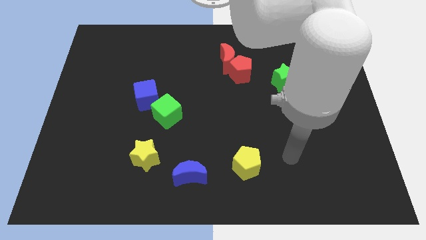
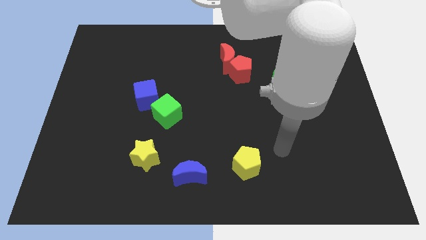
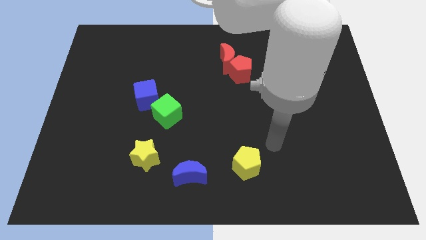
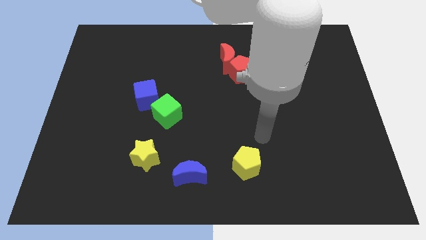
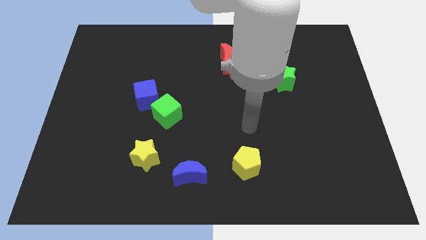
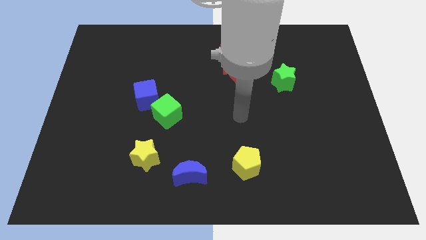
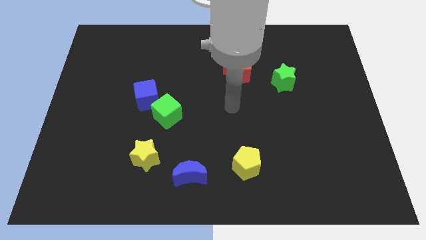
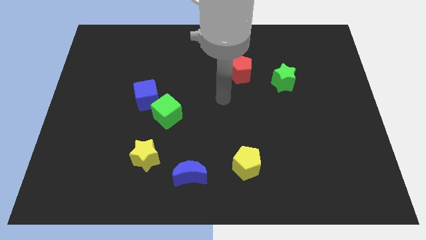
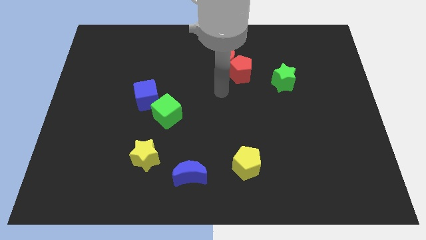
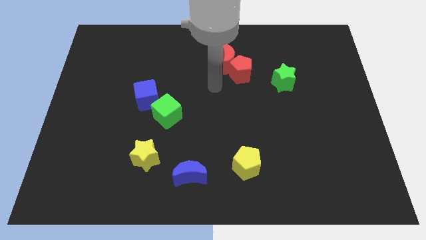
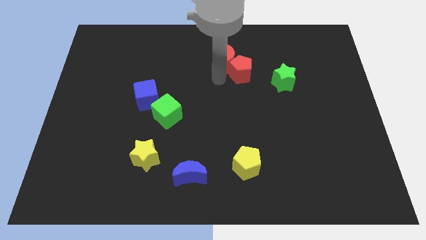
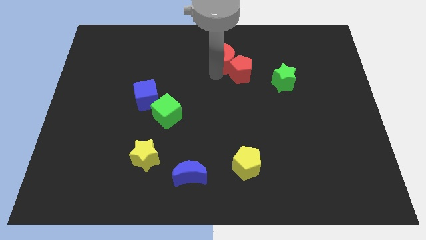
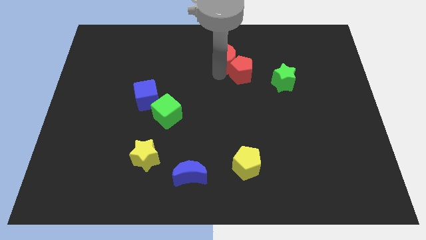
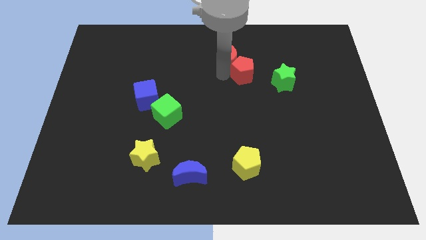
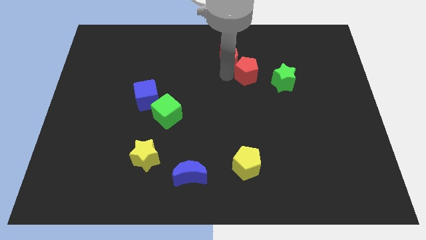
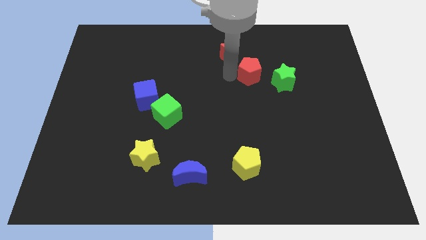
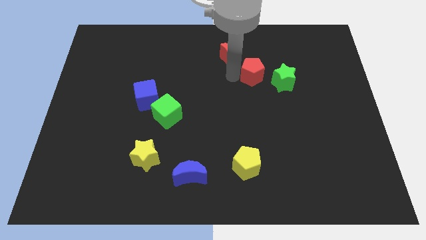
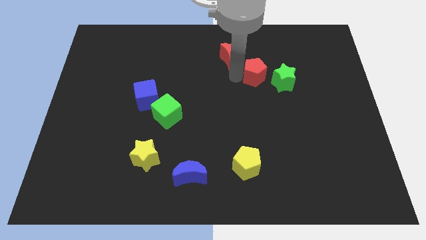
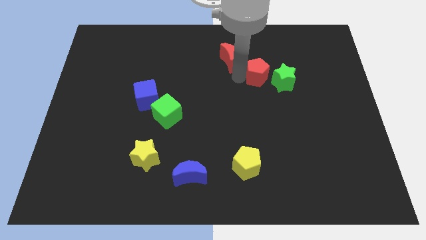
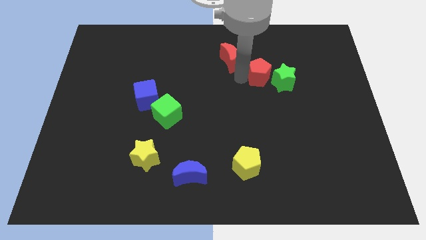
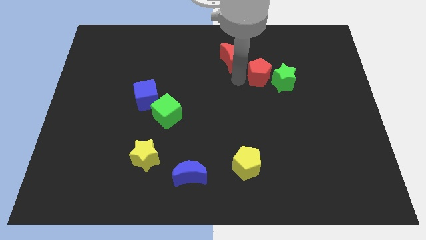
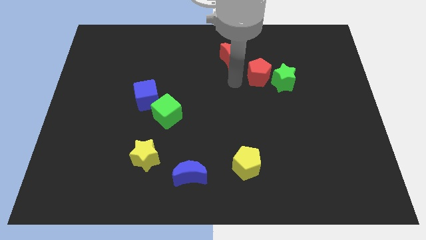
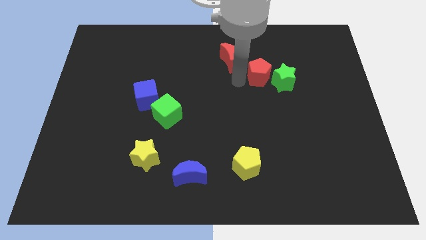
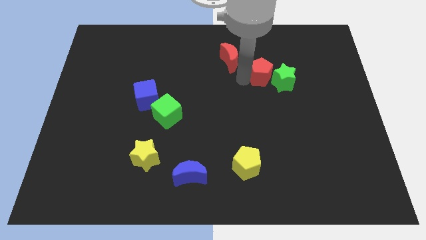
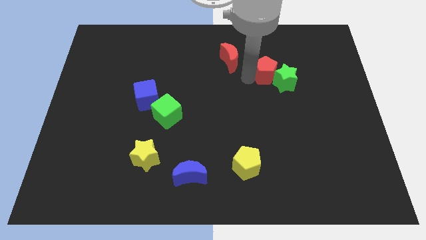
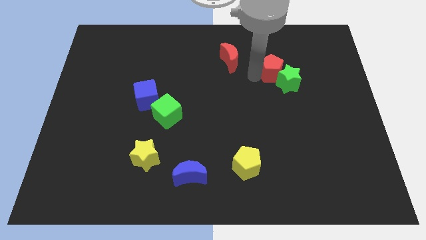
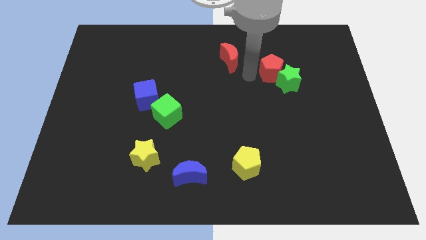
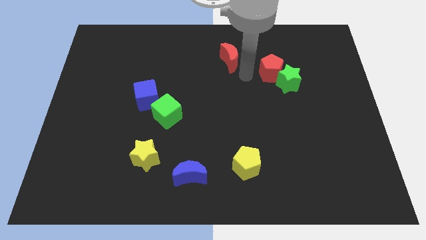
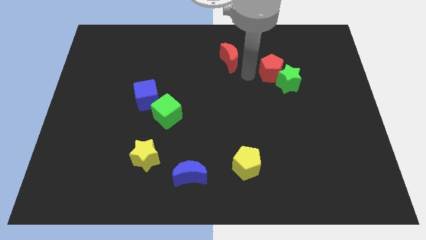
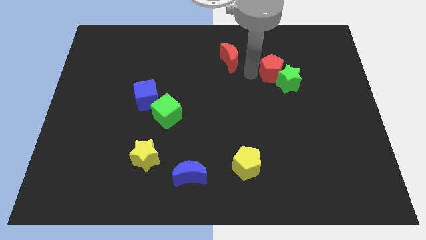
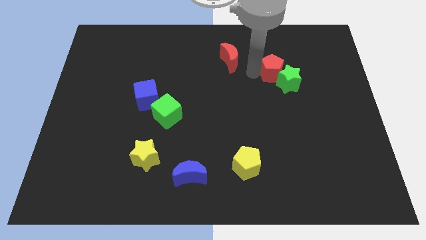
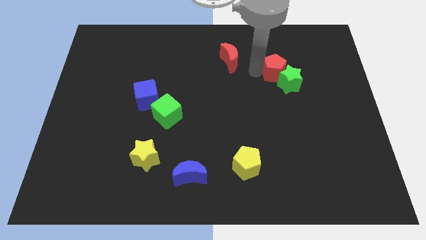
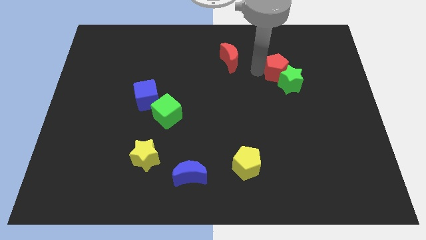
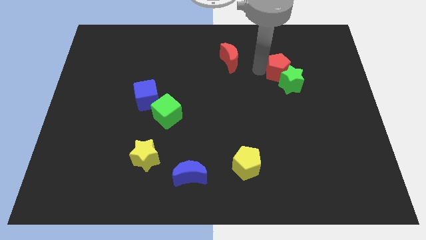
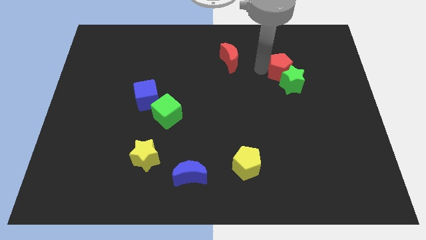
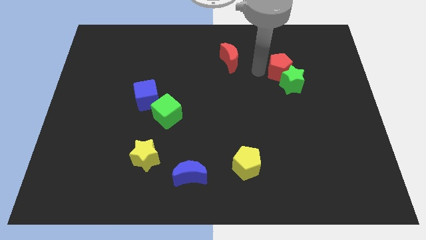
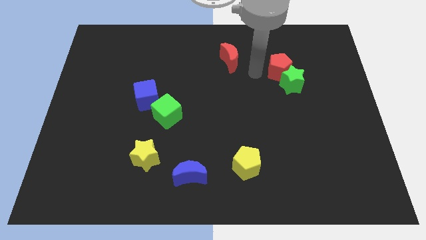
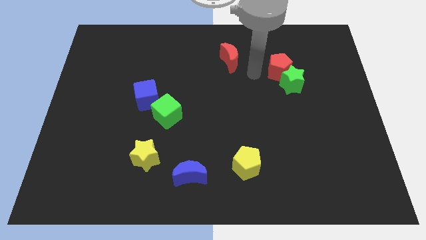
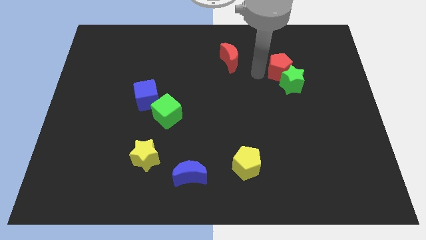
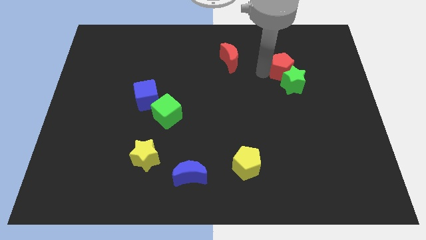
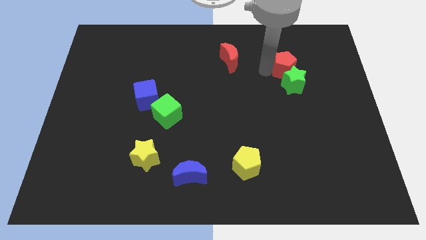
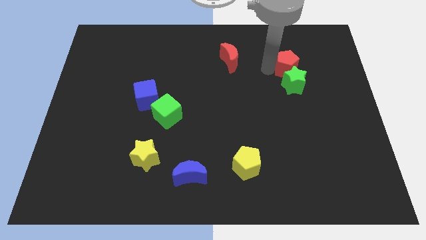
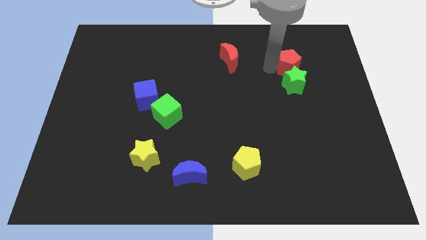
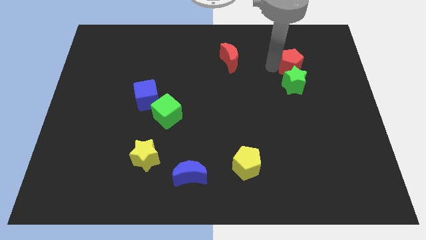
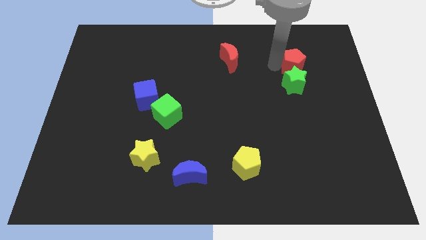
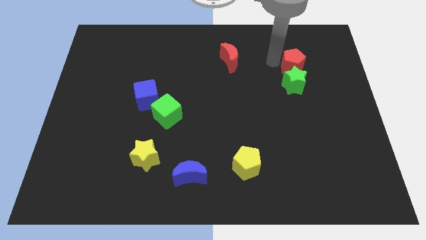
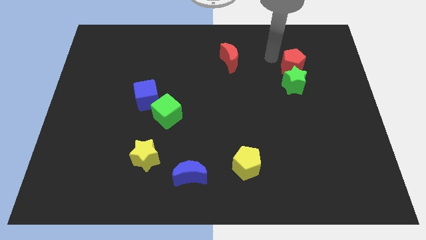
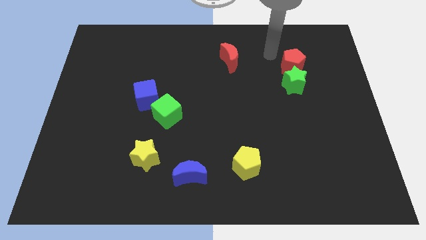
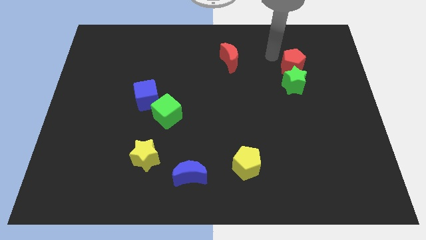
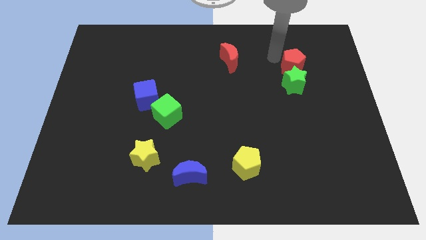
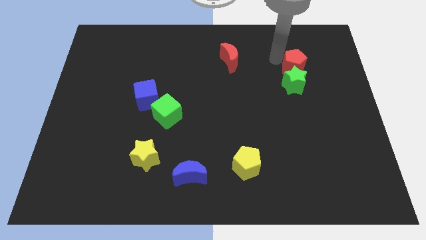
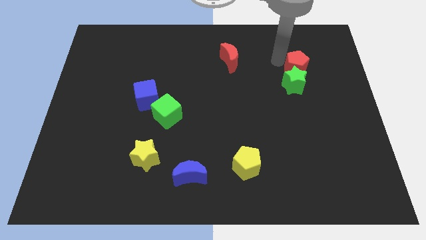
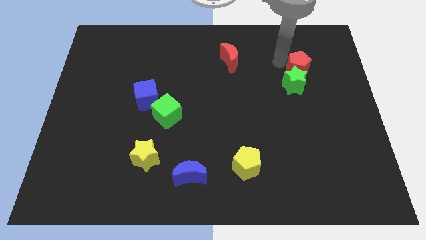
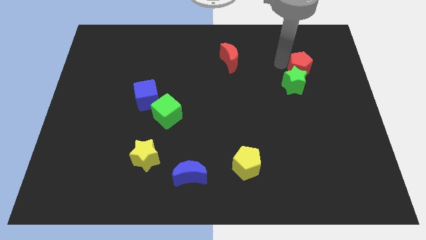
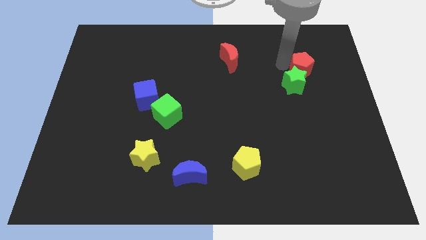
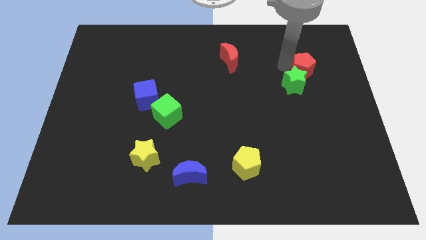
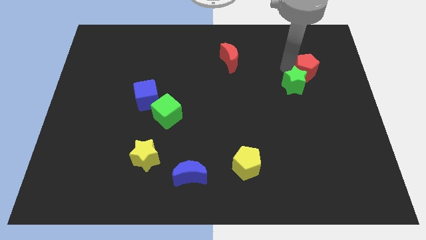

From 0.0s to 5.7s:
push the red pentagon right of the green star
